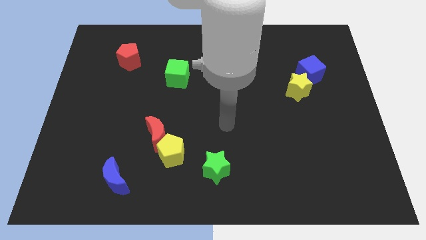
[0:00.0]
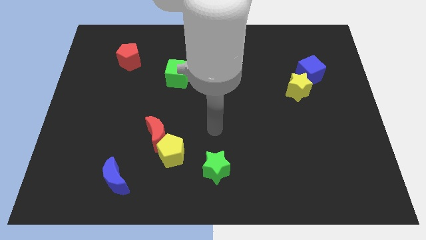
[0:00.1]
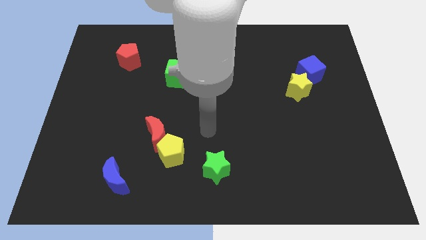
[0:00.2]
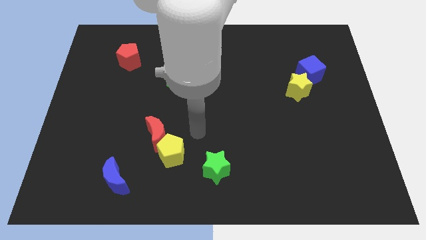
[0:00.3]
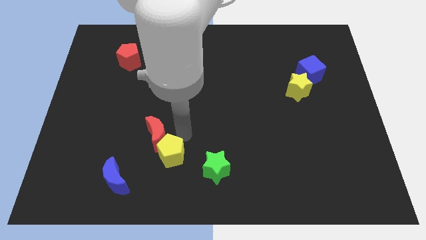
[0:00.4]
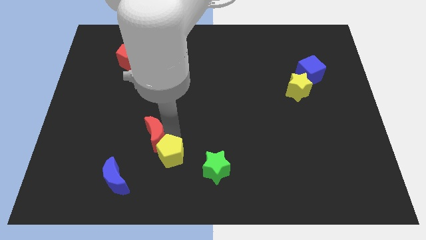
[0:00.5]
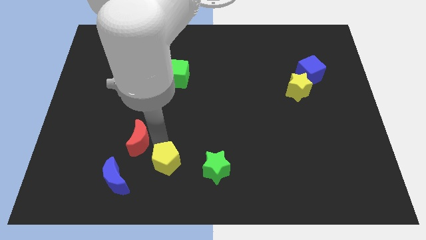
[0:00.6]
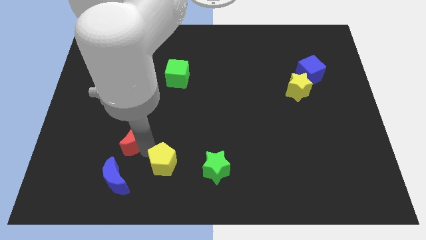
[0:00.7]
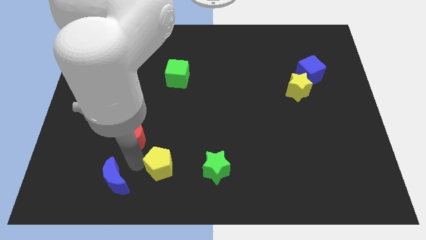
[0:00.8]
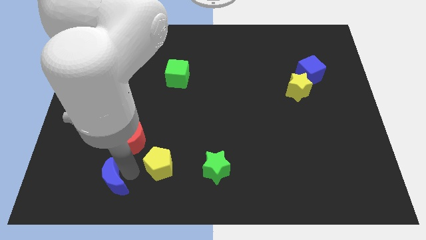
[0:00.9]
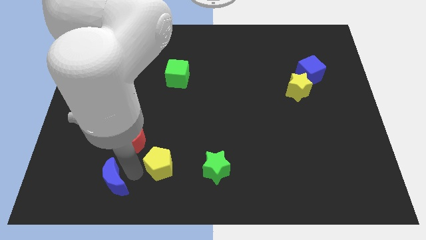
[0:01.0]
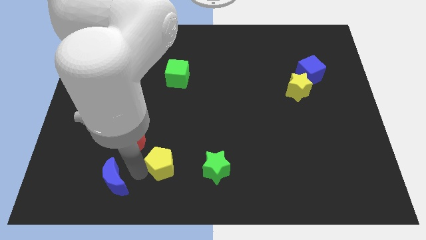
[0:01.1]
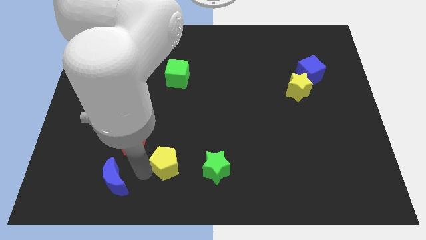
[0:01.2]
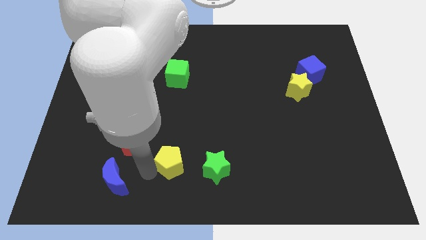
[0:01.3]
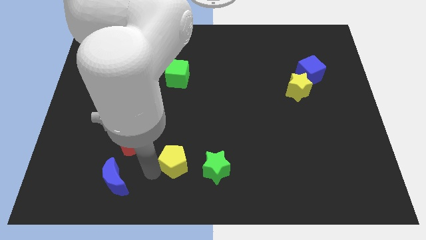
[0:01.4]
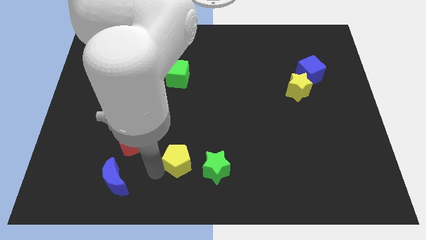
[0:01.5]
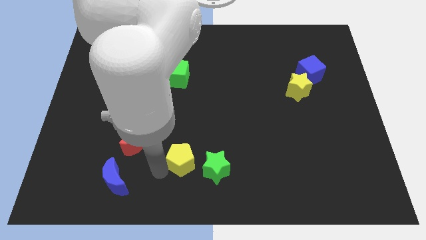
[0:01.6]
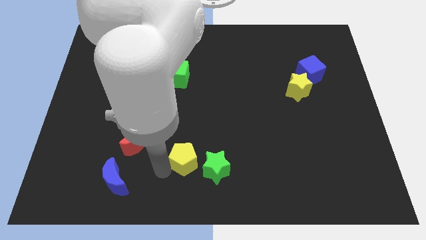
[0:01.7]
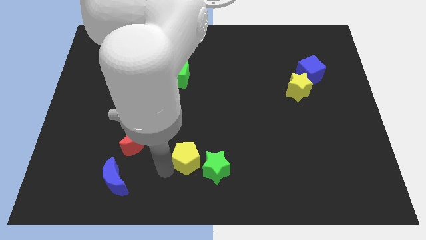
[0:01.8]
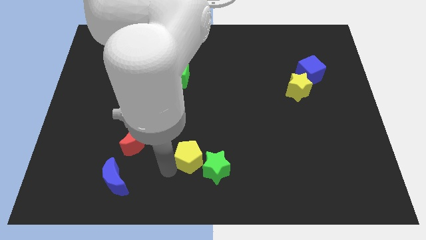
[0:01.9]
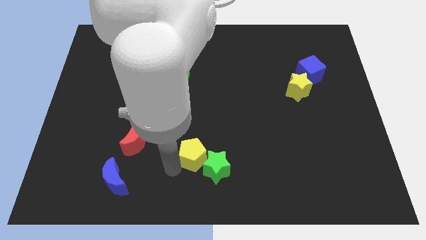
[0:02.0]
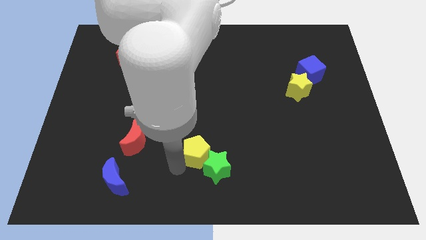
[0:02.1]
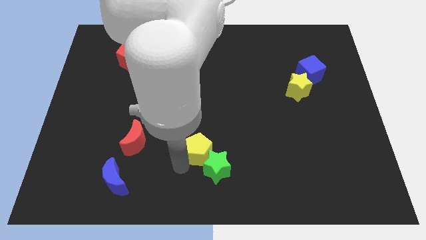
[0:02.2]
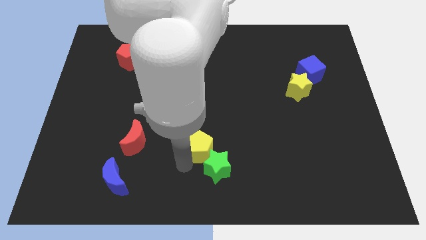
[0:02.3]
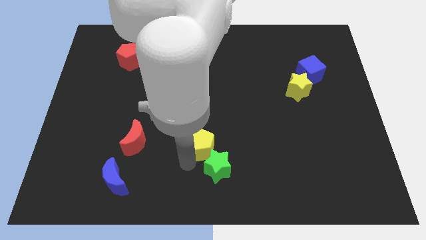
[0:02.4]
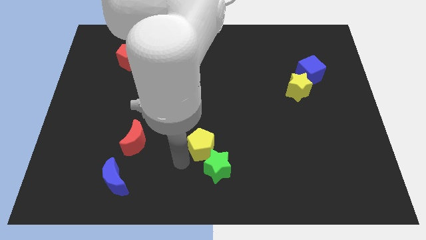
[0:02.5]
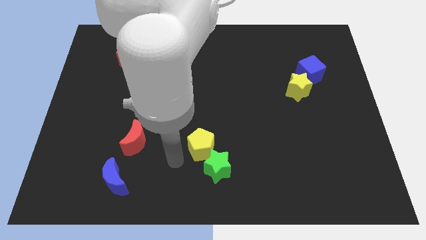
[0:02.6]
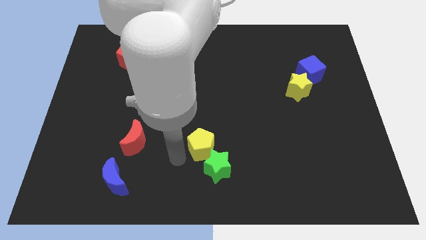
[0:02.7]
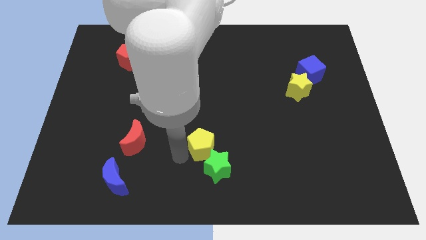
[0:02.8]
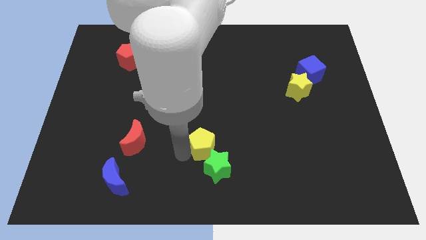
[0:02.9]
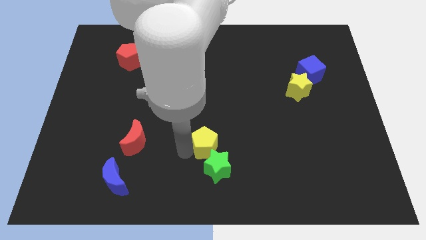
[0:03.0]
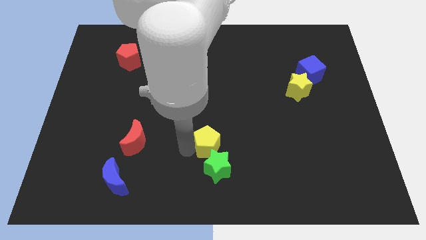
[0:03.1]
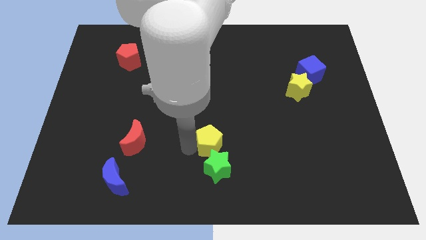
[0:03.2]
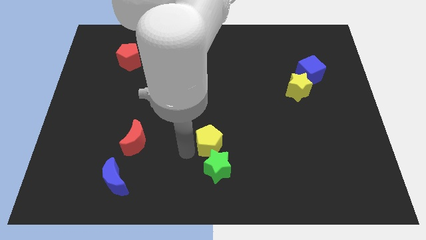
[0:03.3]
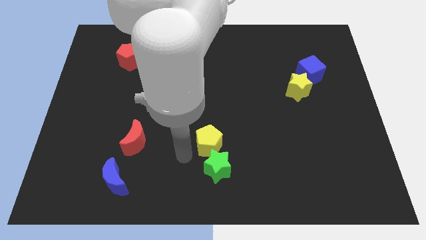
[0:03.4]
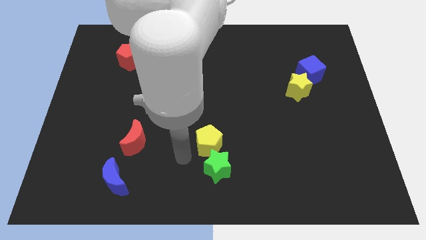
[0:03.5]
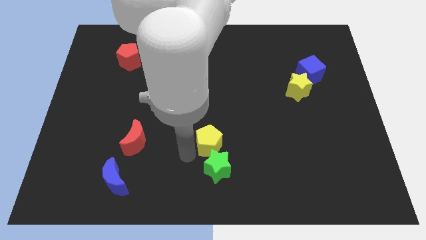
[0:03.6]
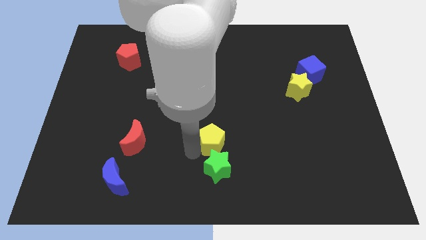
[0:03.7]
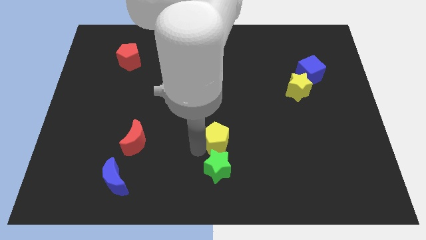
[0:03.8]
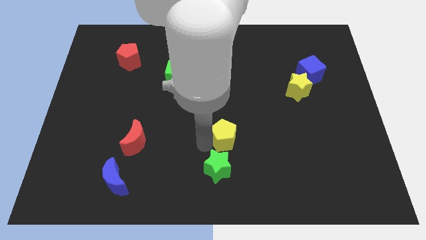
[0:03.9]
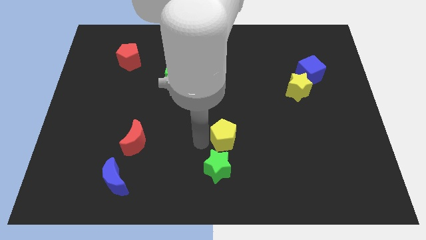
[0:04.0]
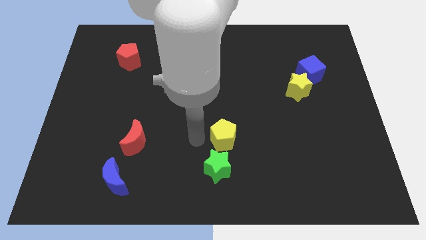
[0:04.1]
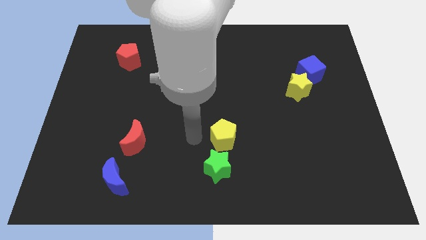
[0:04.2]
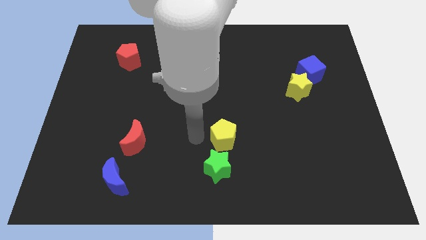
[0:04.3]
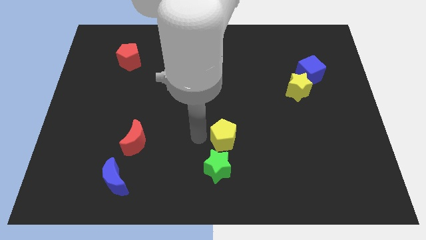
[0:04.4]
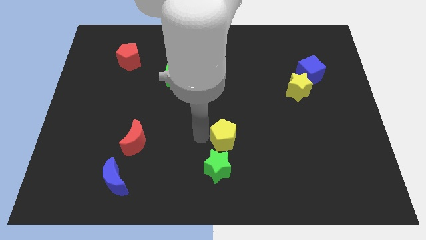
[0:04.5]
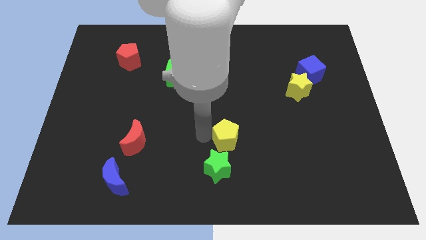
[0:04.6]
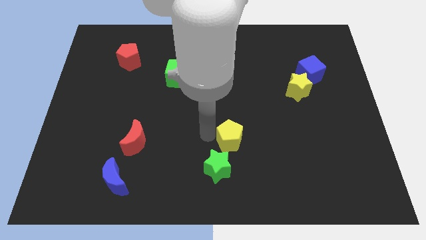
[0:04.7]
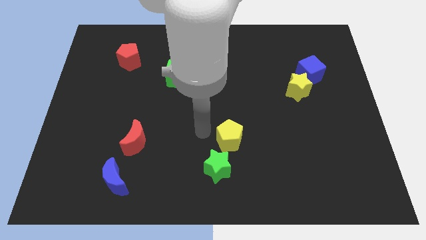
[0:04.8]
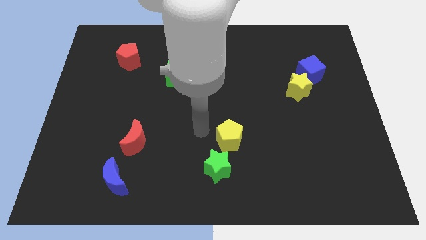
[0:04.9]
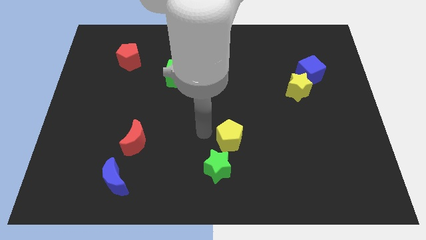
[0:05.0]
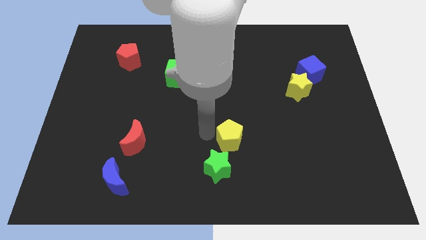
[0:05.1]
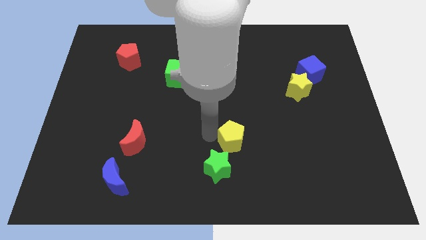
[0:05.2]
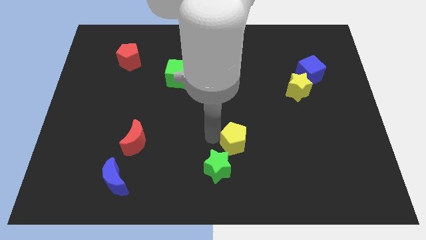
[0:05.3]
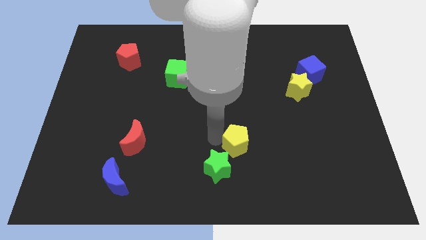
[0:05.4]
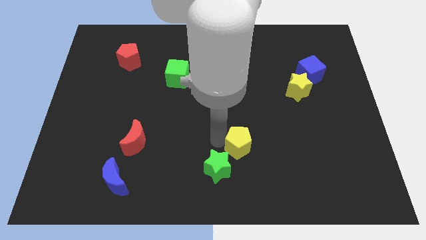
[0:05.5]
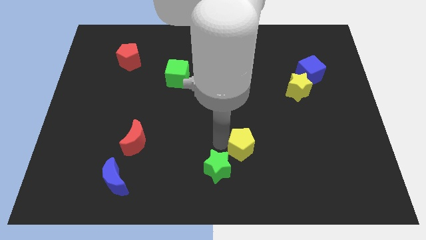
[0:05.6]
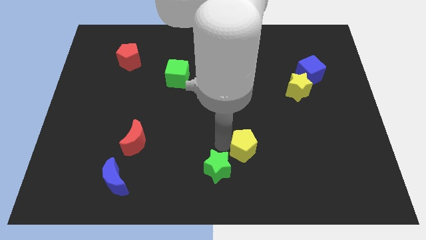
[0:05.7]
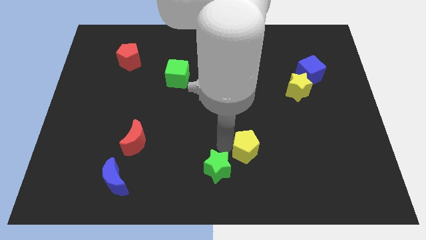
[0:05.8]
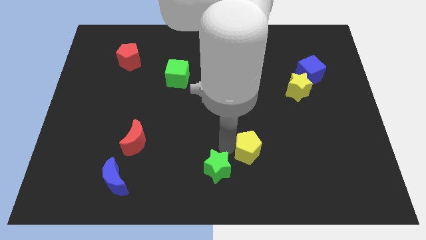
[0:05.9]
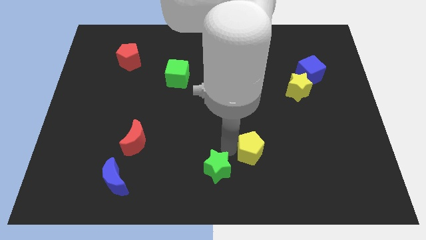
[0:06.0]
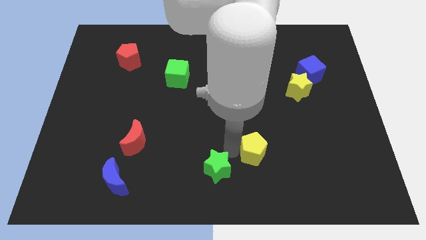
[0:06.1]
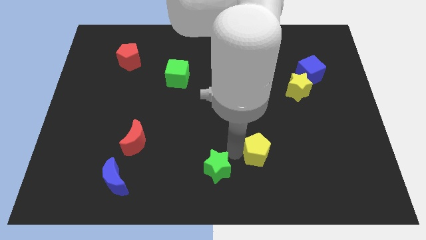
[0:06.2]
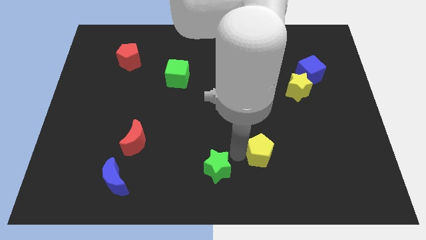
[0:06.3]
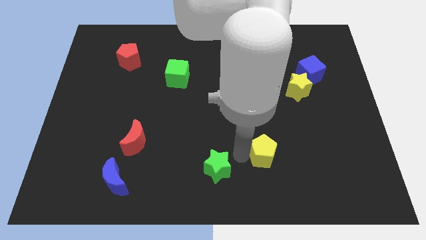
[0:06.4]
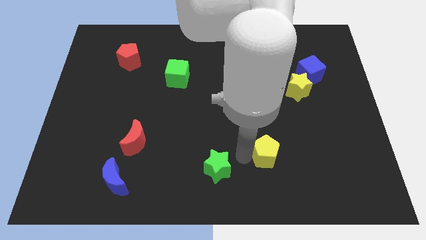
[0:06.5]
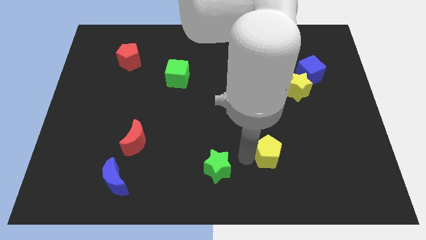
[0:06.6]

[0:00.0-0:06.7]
move the yellow pentagon to the right

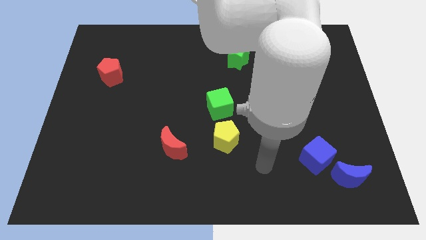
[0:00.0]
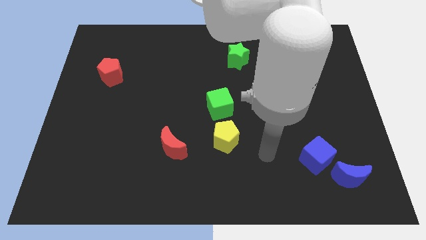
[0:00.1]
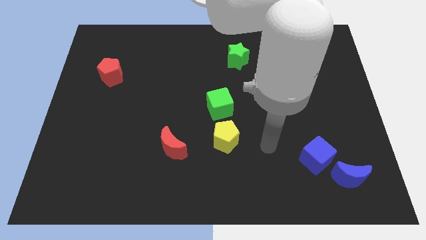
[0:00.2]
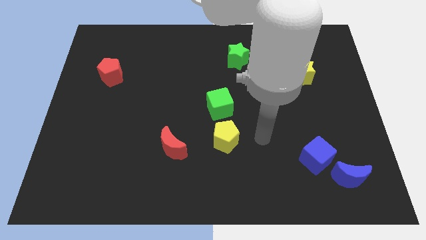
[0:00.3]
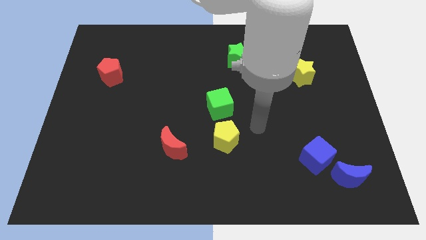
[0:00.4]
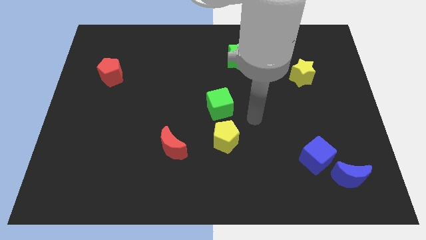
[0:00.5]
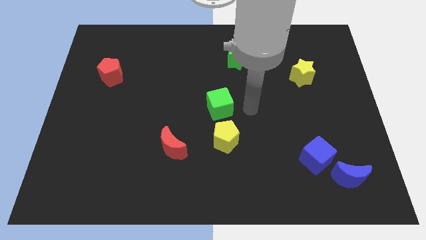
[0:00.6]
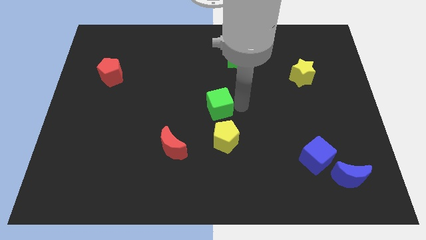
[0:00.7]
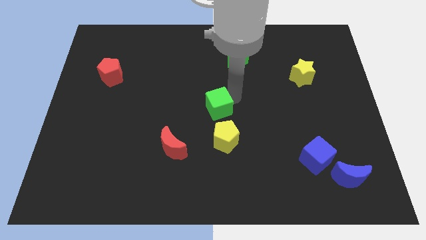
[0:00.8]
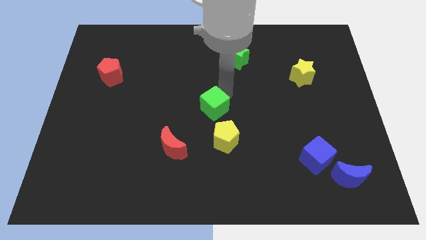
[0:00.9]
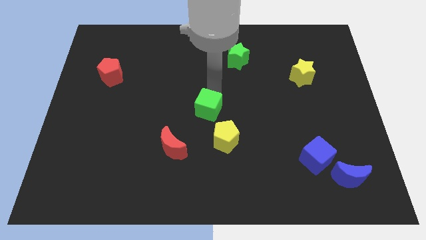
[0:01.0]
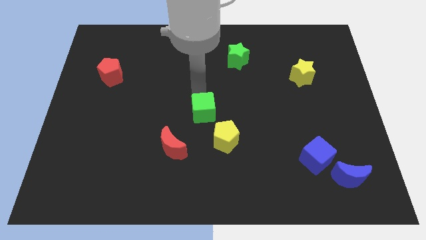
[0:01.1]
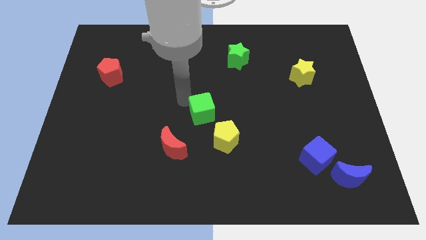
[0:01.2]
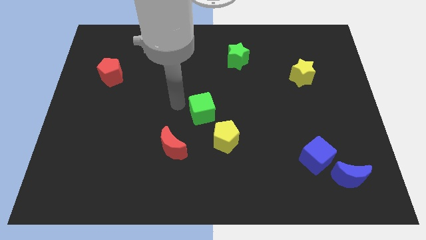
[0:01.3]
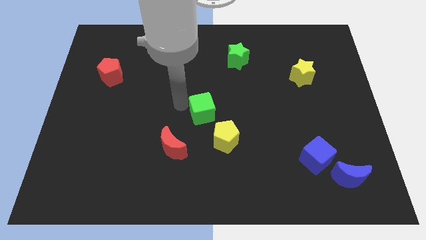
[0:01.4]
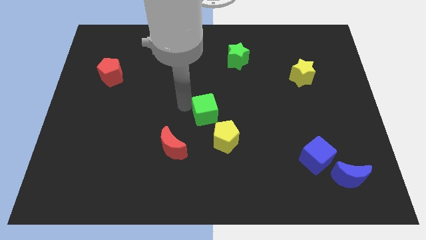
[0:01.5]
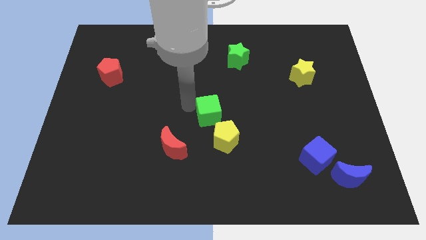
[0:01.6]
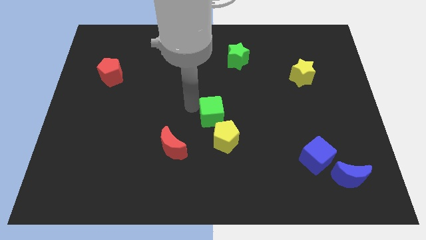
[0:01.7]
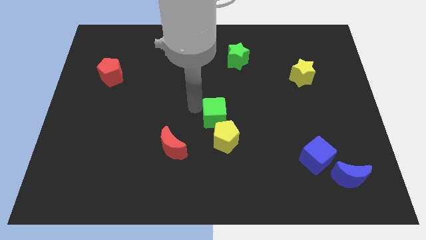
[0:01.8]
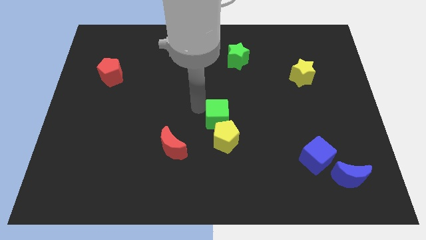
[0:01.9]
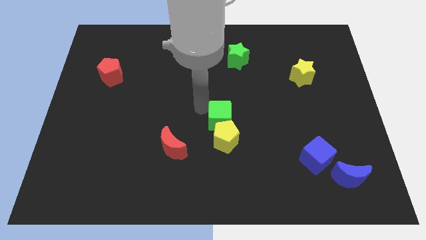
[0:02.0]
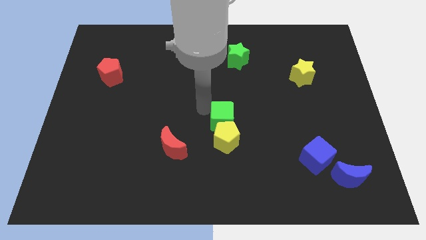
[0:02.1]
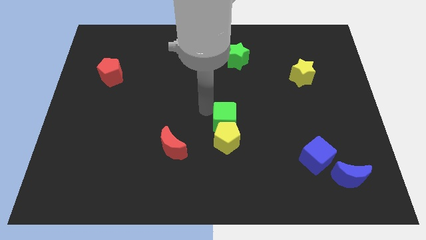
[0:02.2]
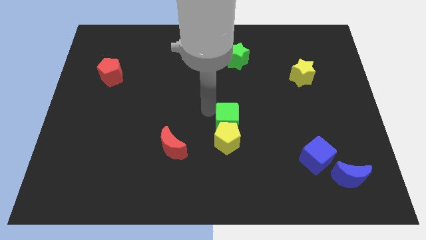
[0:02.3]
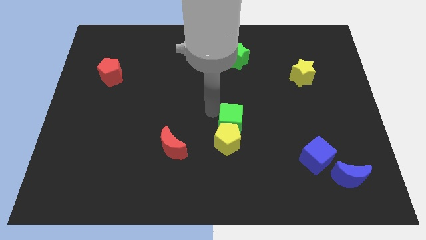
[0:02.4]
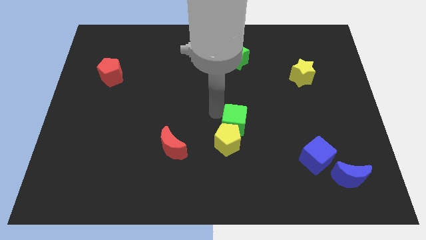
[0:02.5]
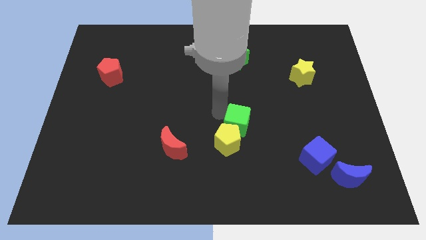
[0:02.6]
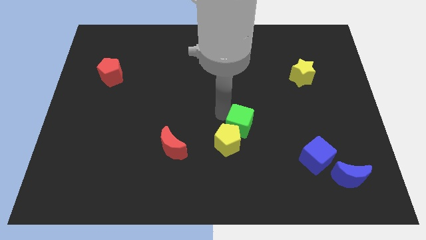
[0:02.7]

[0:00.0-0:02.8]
move the green cube downwards and right slightly
